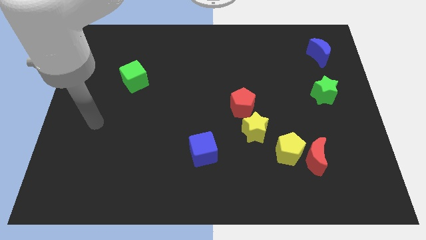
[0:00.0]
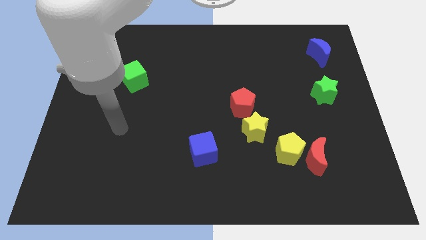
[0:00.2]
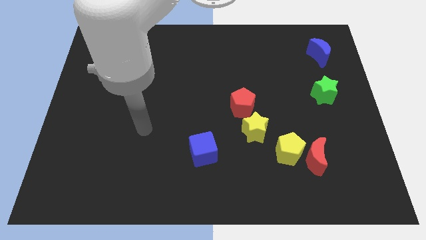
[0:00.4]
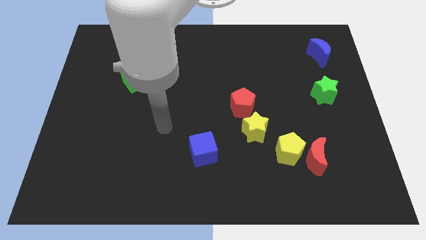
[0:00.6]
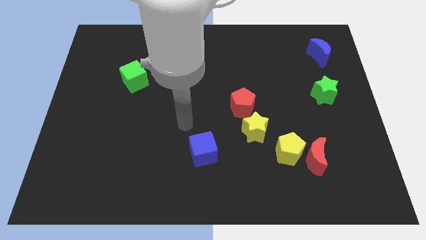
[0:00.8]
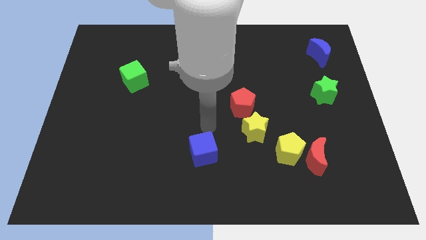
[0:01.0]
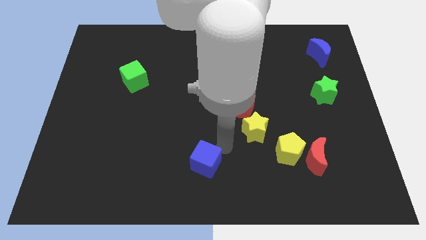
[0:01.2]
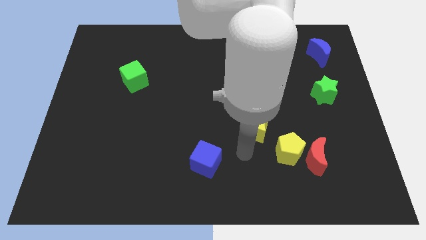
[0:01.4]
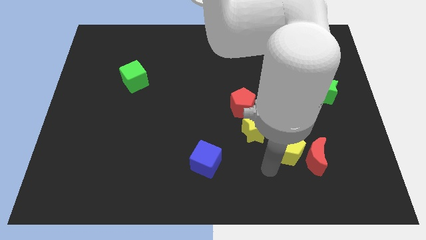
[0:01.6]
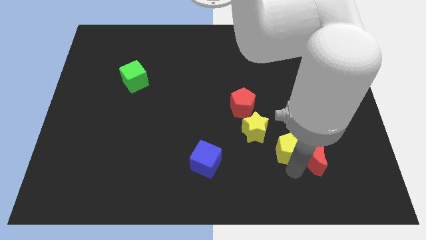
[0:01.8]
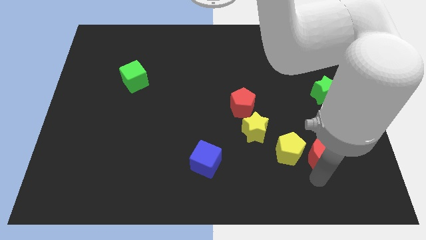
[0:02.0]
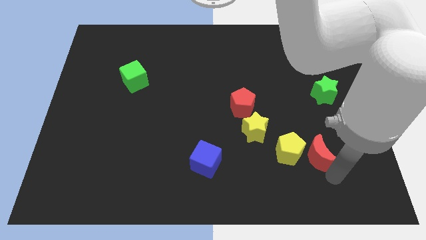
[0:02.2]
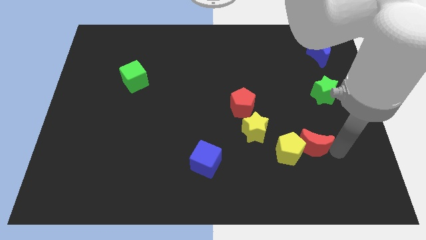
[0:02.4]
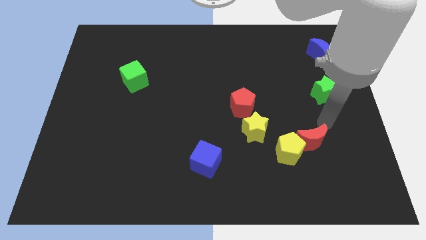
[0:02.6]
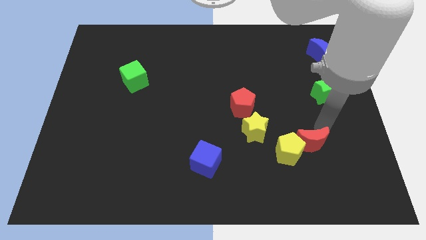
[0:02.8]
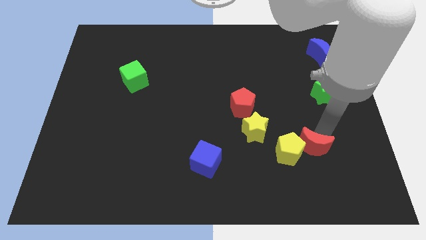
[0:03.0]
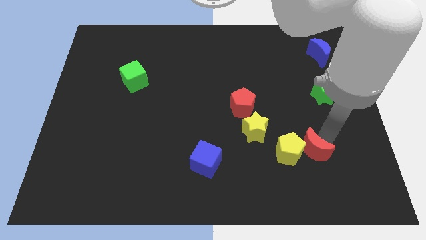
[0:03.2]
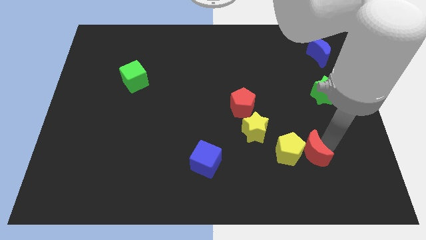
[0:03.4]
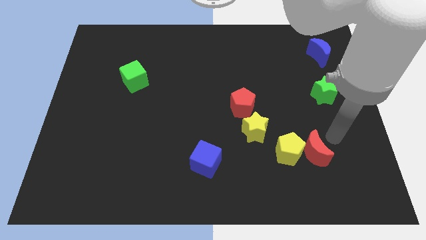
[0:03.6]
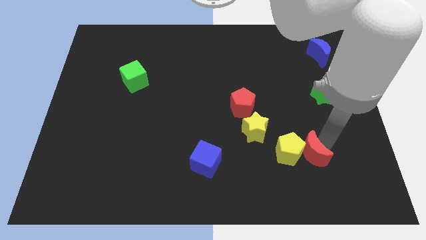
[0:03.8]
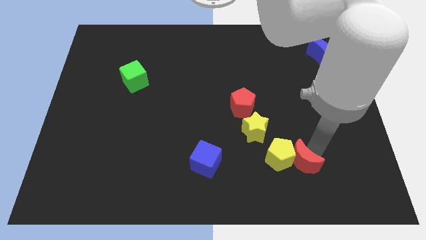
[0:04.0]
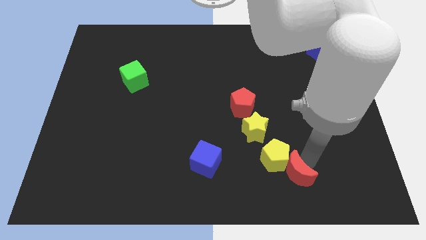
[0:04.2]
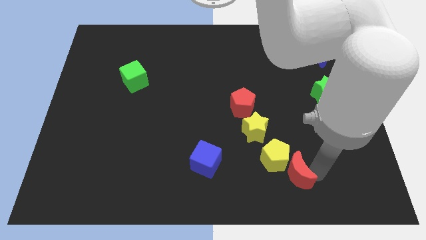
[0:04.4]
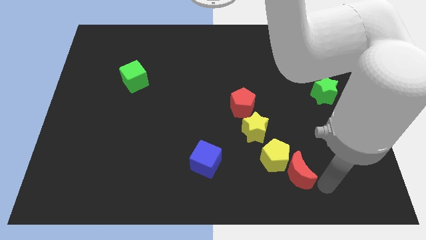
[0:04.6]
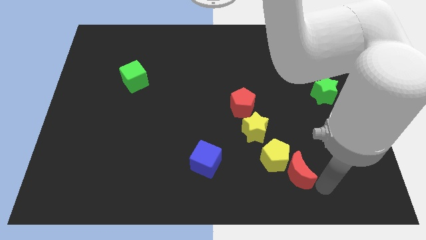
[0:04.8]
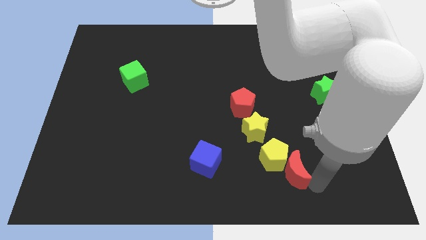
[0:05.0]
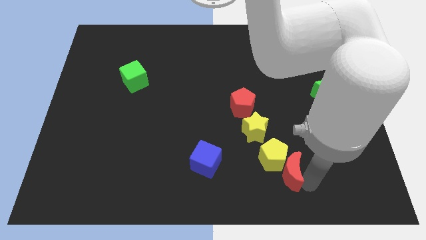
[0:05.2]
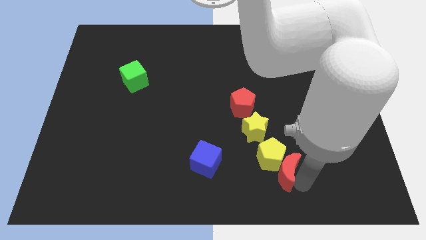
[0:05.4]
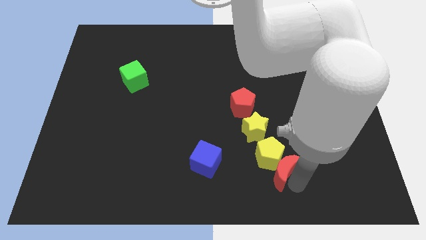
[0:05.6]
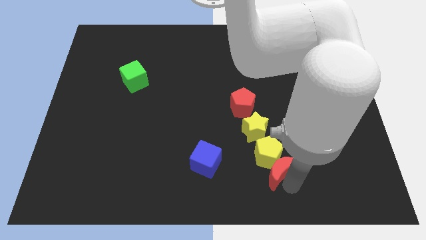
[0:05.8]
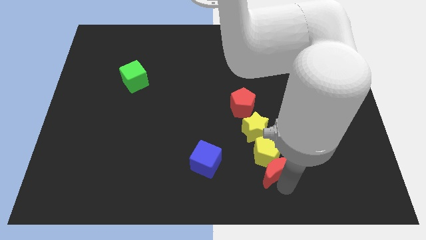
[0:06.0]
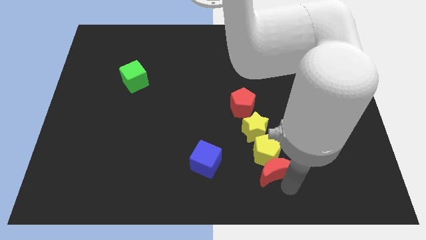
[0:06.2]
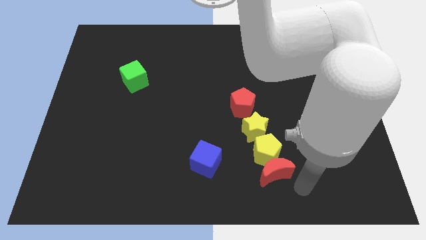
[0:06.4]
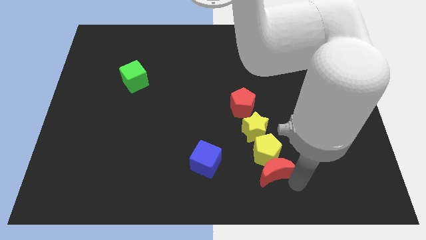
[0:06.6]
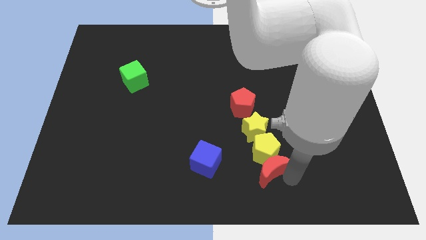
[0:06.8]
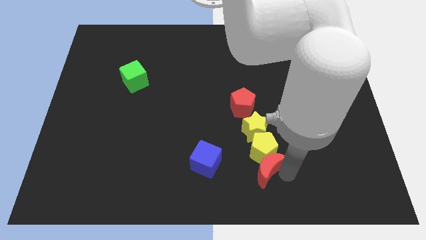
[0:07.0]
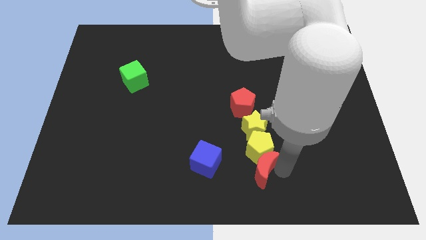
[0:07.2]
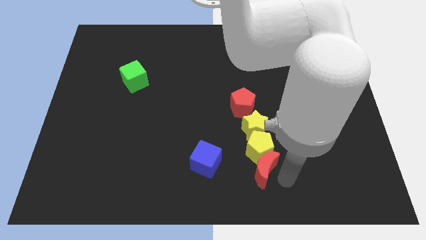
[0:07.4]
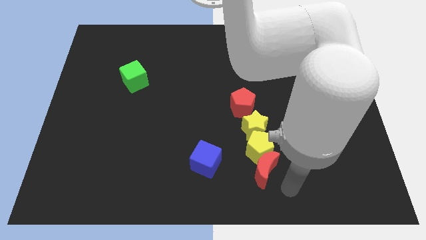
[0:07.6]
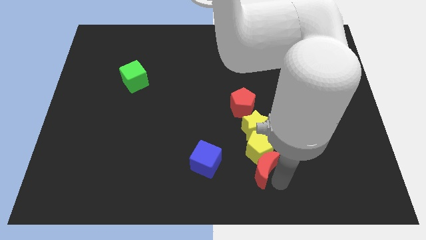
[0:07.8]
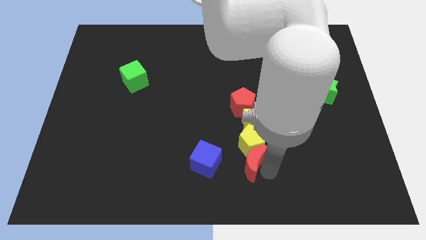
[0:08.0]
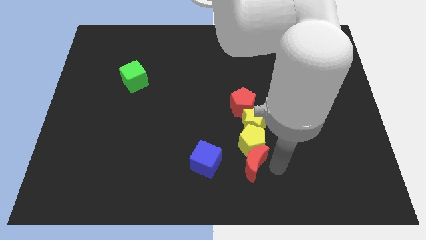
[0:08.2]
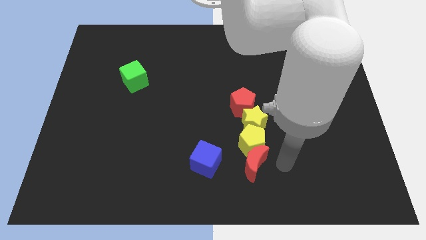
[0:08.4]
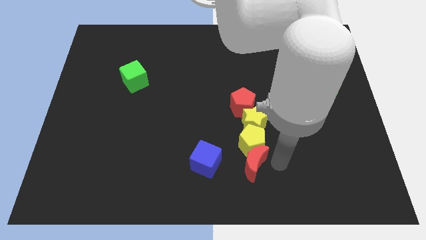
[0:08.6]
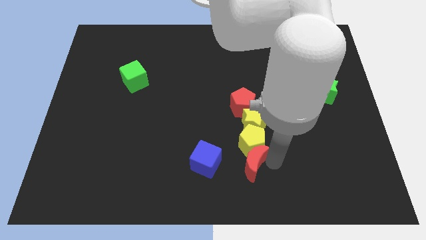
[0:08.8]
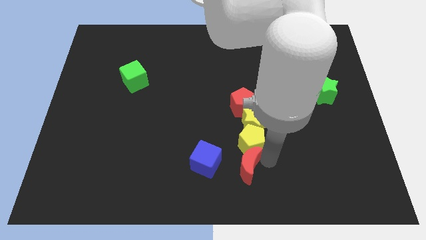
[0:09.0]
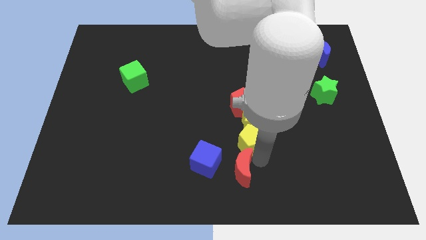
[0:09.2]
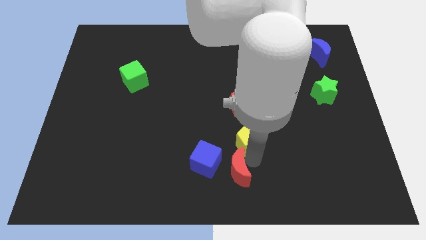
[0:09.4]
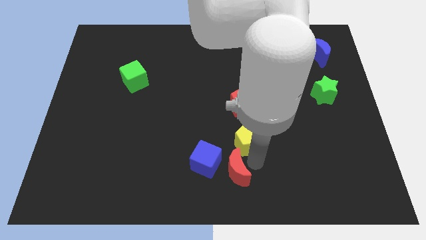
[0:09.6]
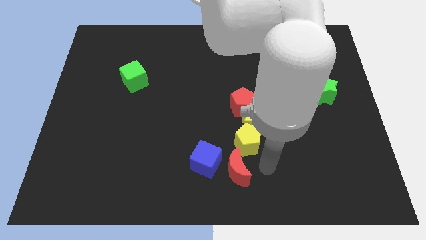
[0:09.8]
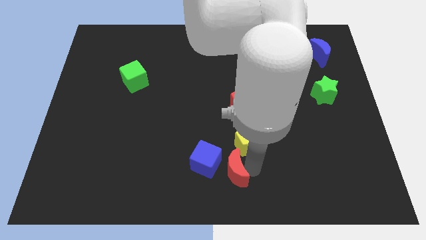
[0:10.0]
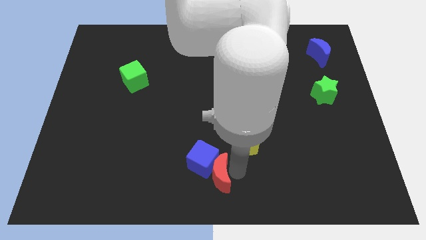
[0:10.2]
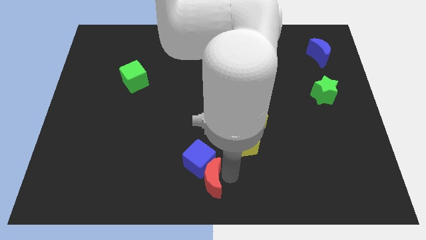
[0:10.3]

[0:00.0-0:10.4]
slide the red moon left

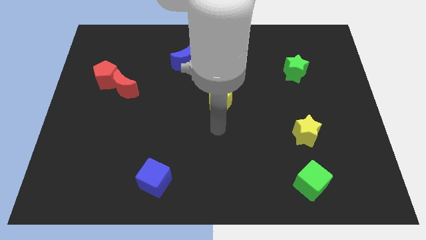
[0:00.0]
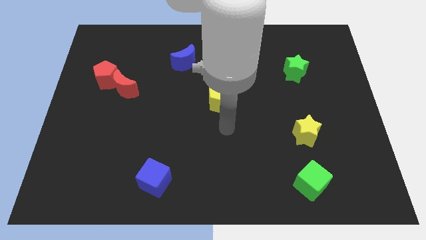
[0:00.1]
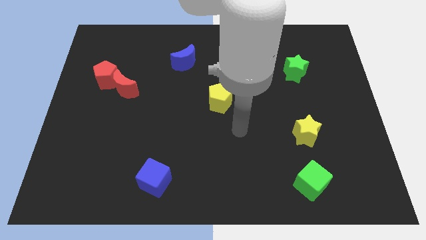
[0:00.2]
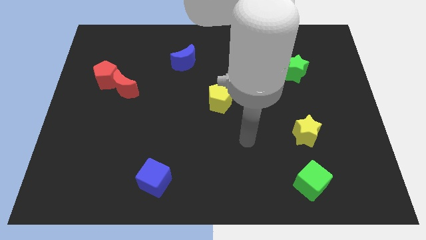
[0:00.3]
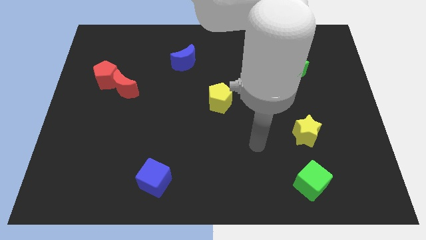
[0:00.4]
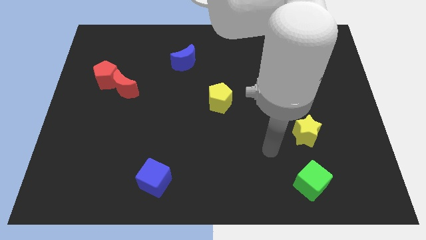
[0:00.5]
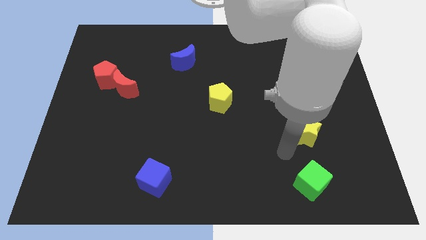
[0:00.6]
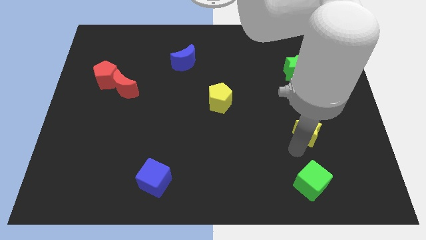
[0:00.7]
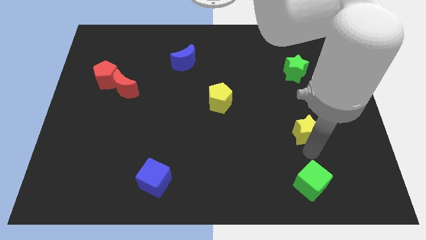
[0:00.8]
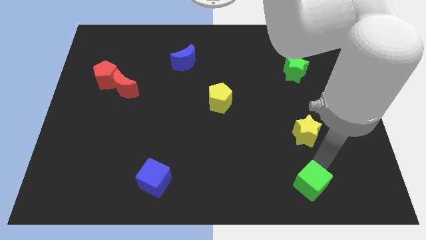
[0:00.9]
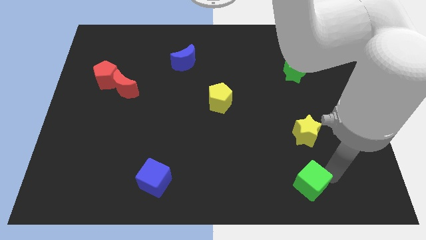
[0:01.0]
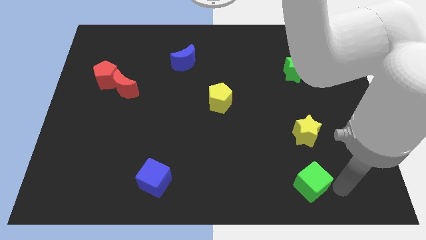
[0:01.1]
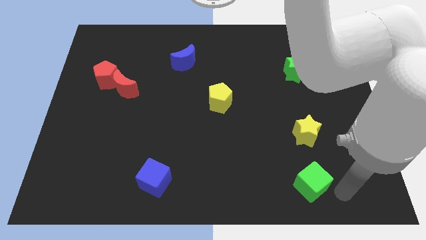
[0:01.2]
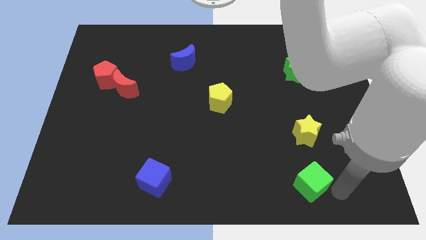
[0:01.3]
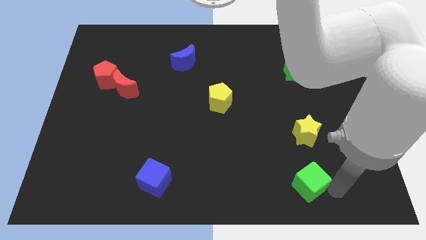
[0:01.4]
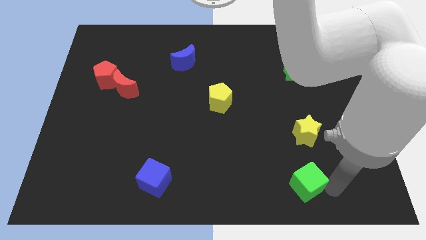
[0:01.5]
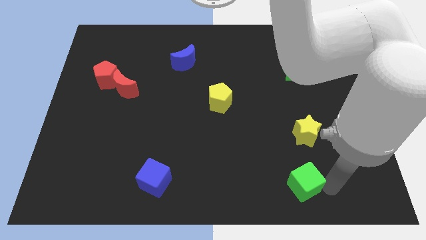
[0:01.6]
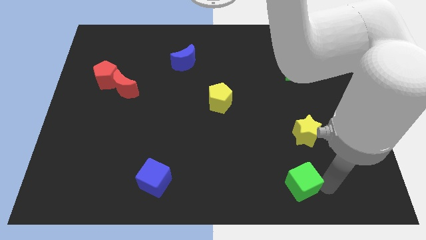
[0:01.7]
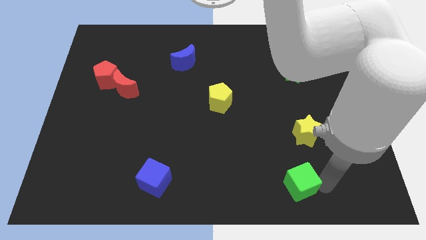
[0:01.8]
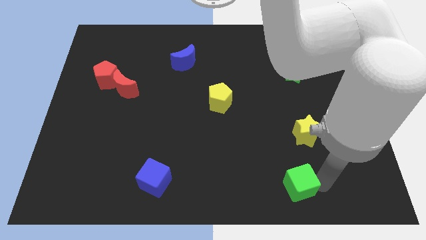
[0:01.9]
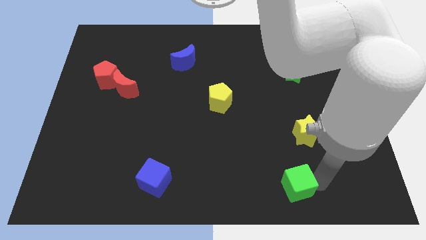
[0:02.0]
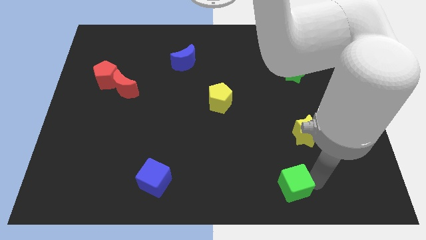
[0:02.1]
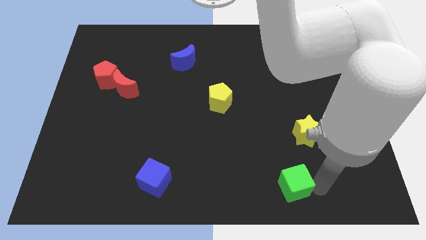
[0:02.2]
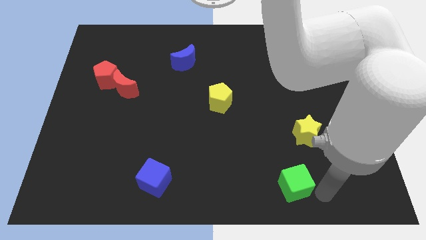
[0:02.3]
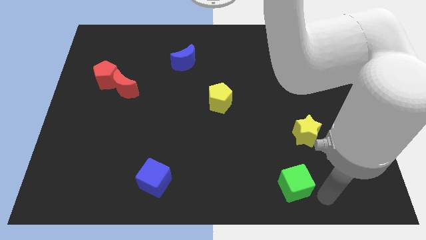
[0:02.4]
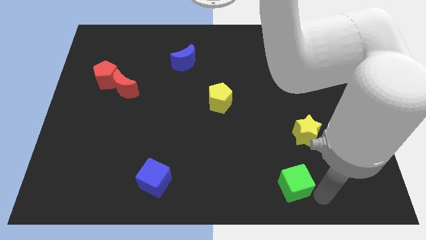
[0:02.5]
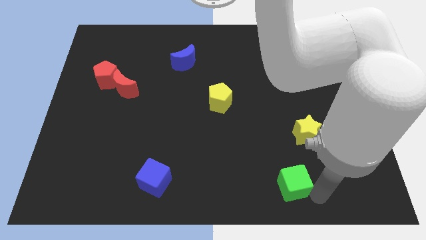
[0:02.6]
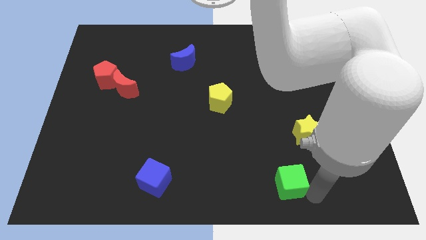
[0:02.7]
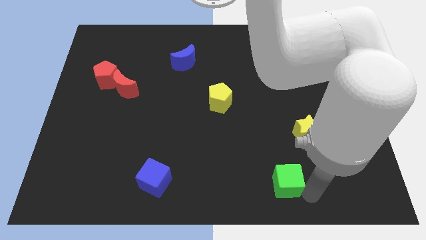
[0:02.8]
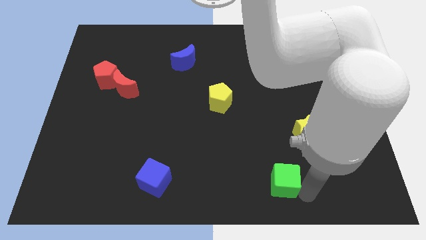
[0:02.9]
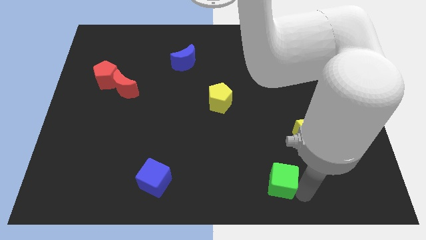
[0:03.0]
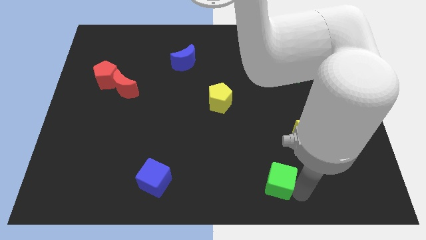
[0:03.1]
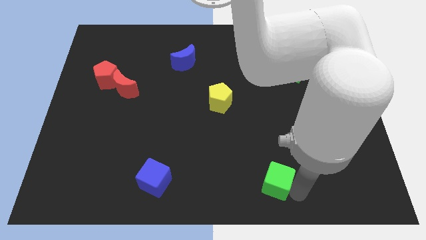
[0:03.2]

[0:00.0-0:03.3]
slightly move the green cube left
